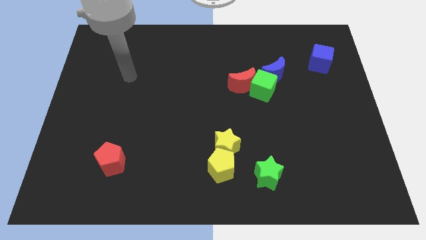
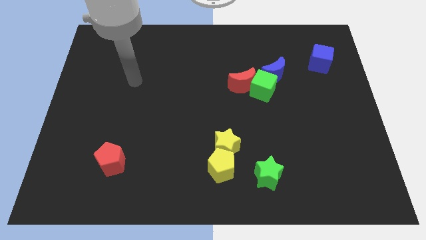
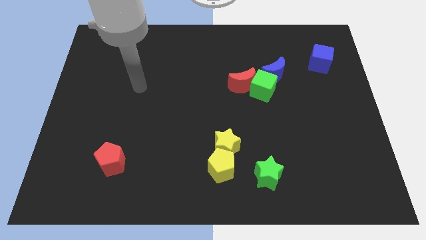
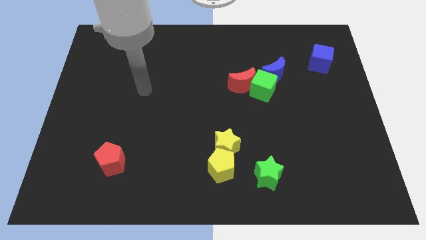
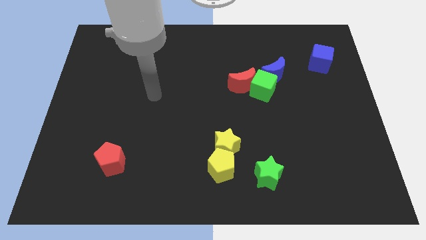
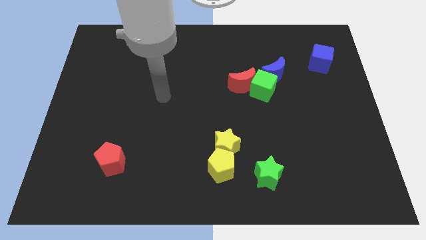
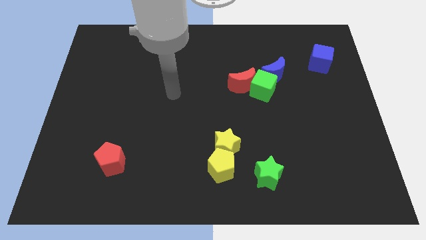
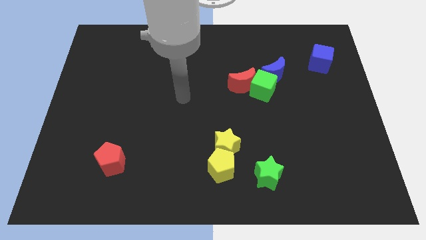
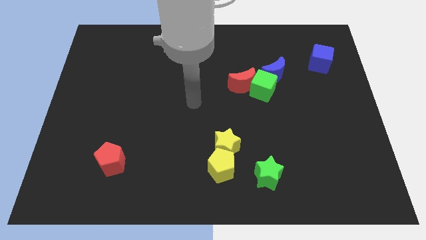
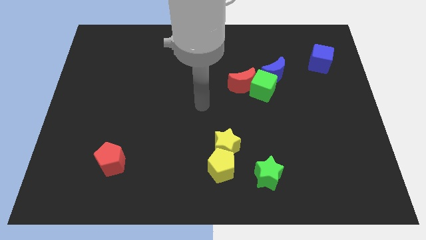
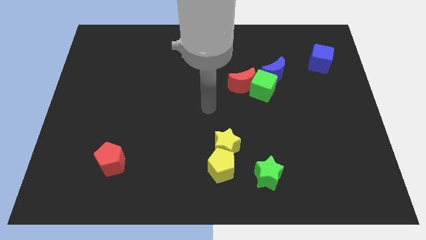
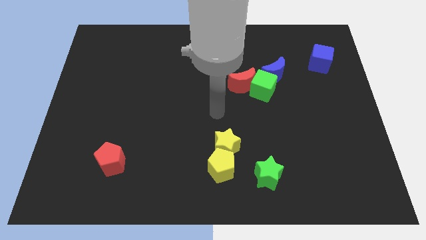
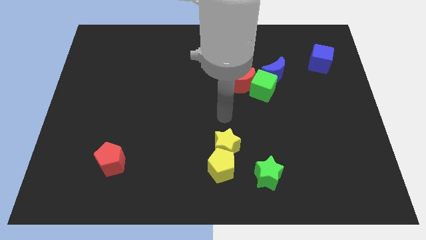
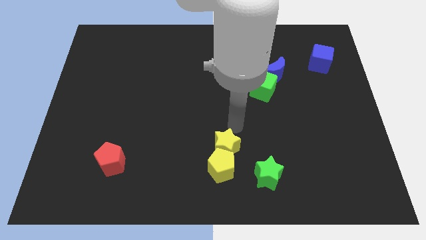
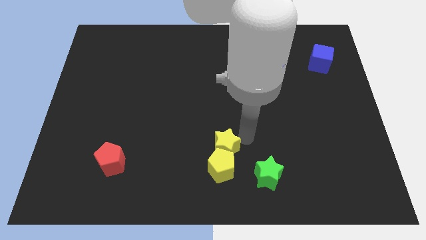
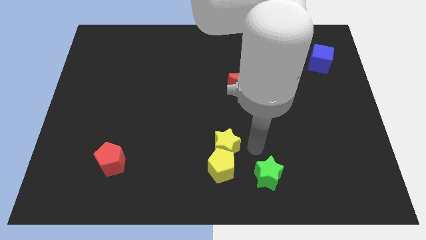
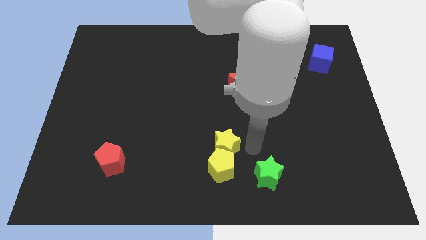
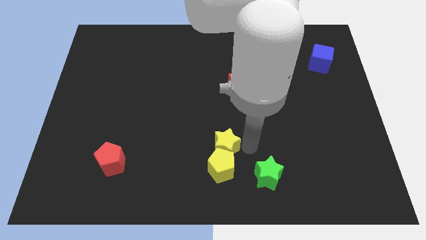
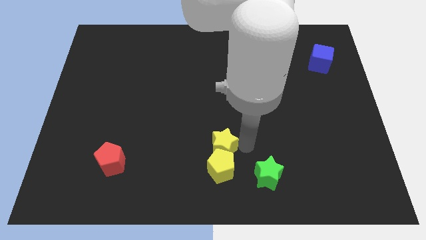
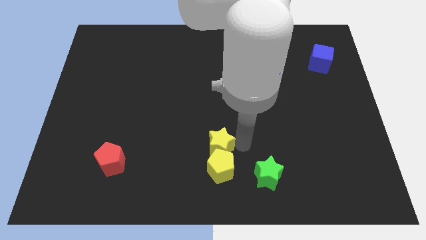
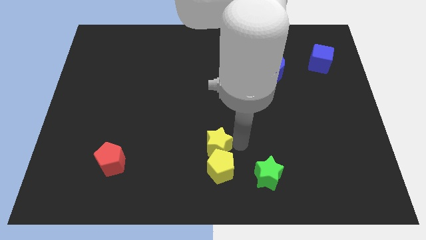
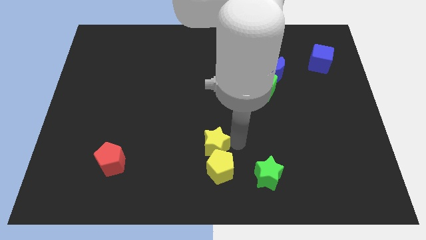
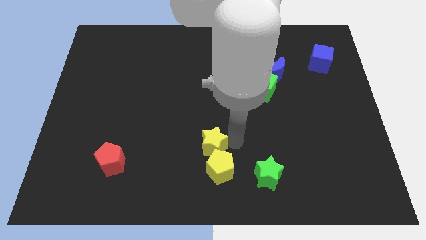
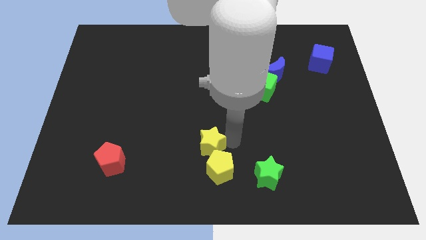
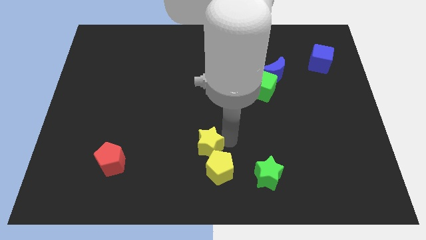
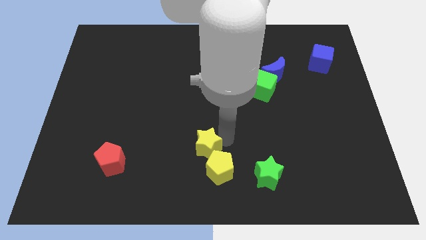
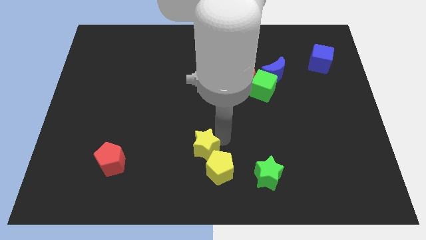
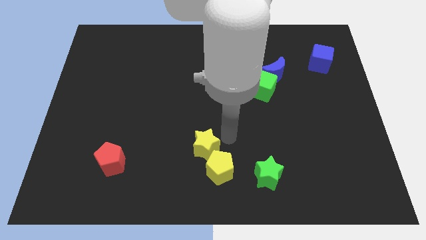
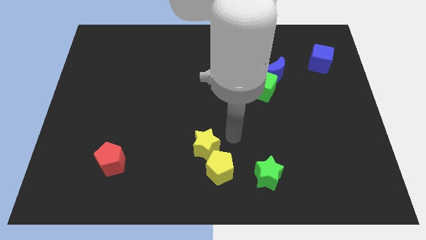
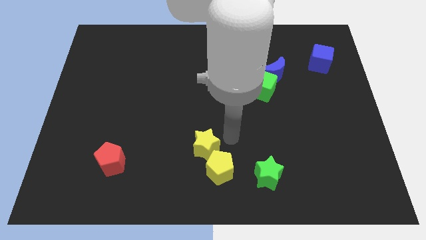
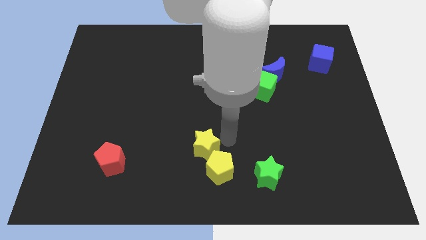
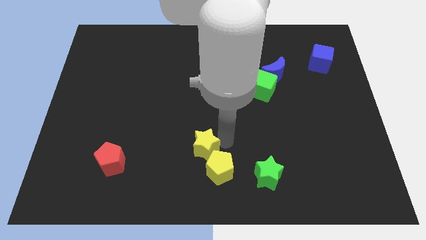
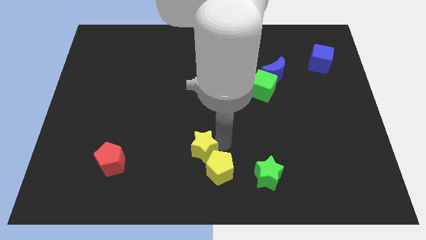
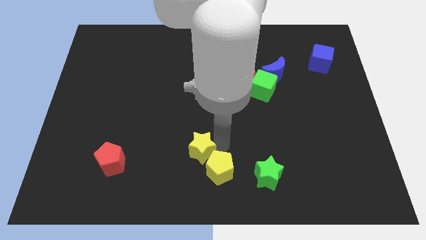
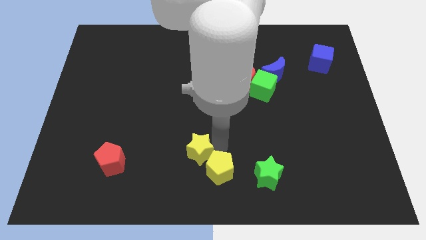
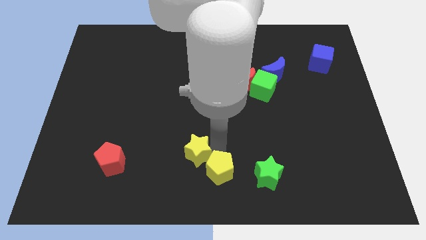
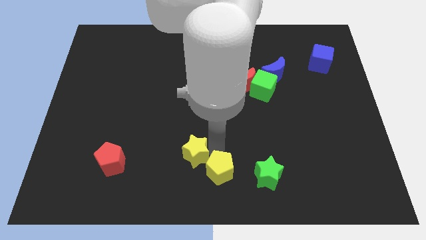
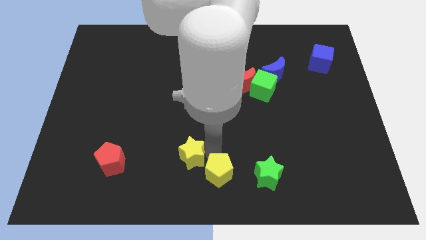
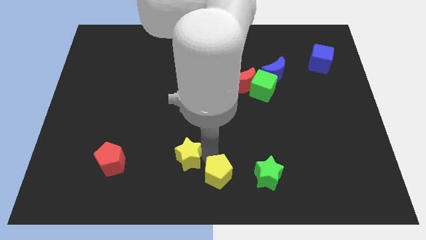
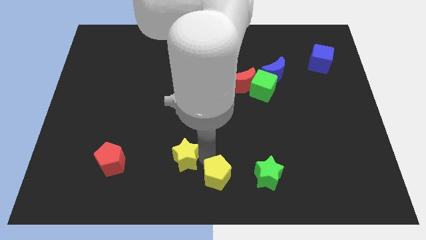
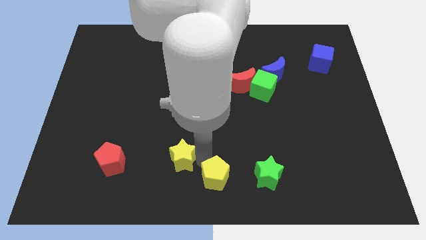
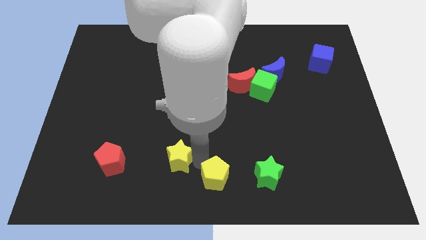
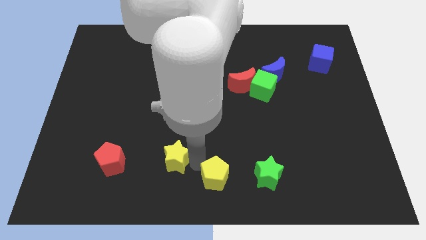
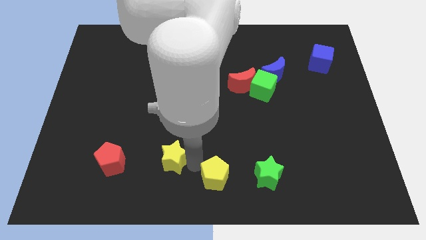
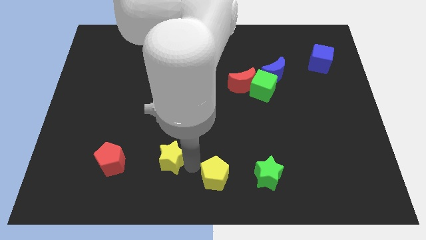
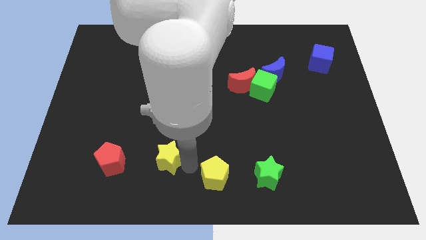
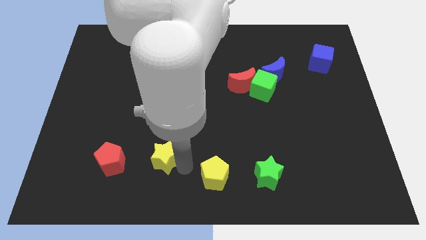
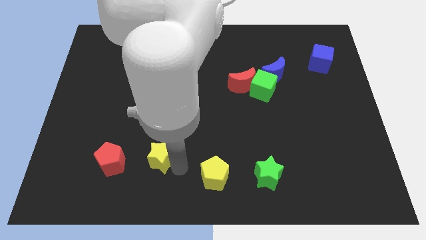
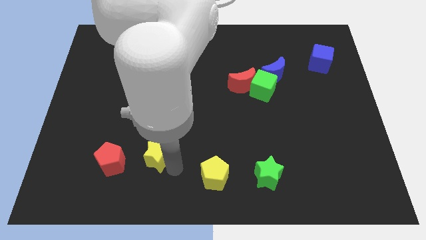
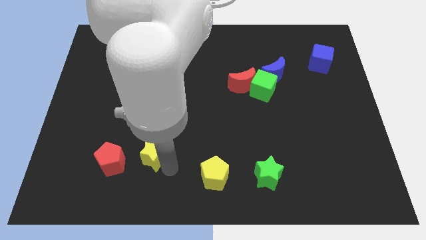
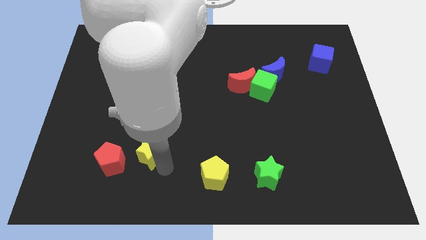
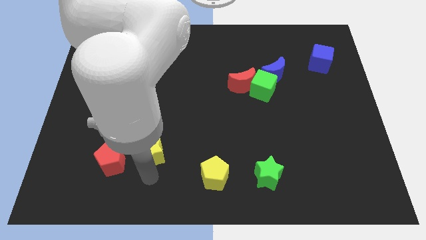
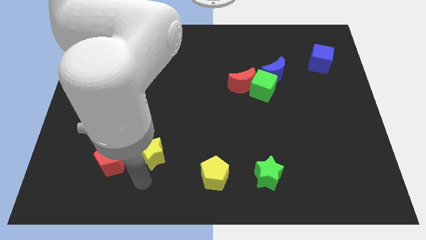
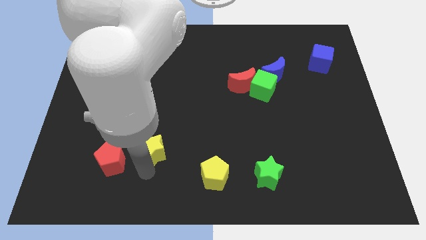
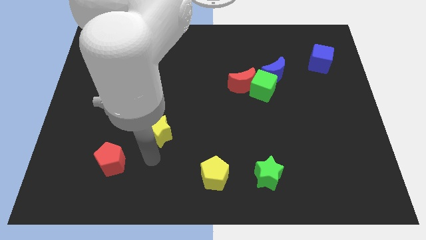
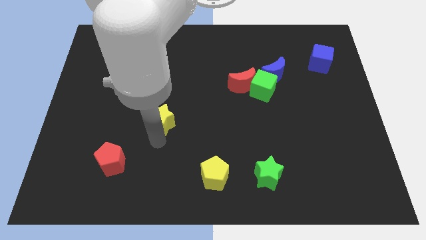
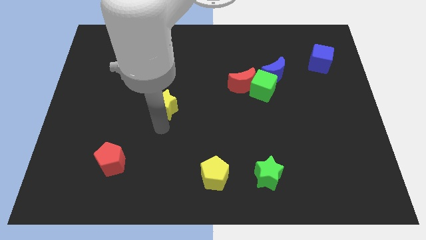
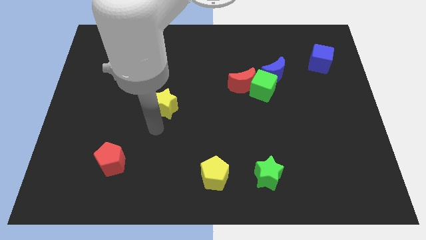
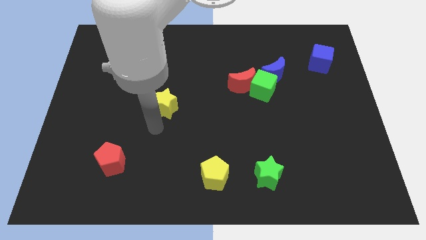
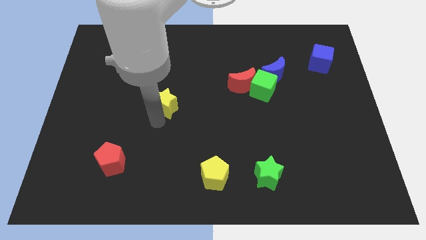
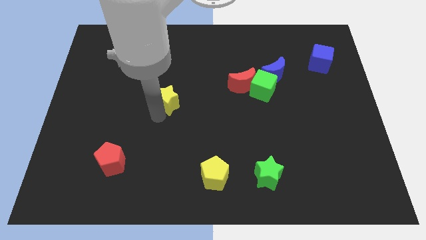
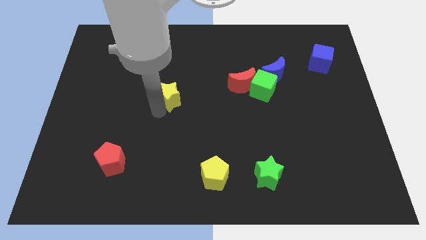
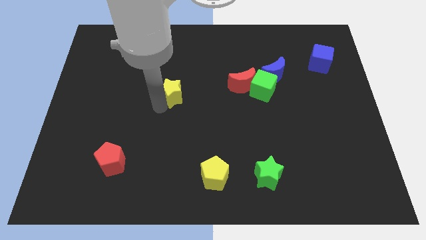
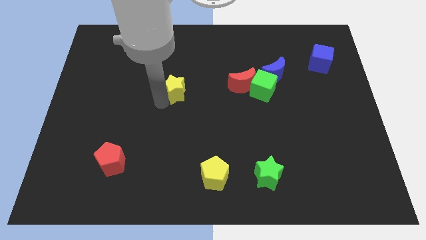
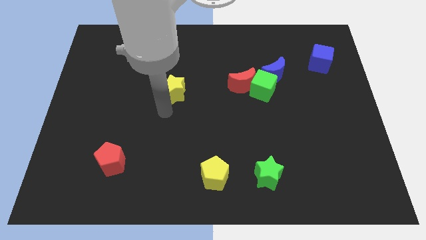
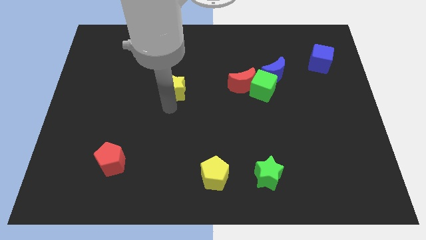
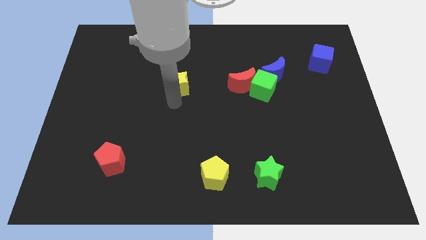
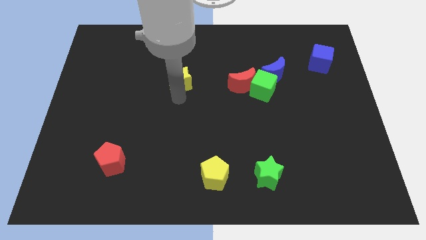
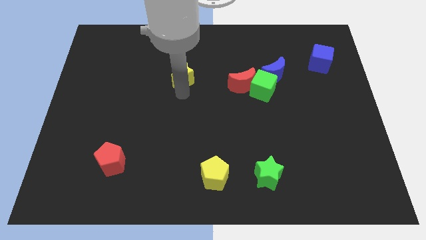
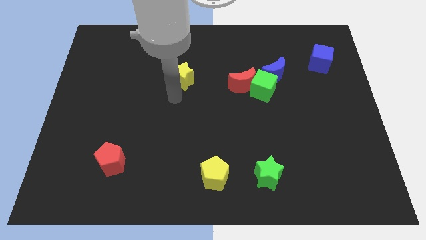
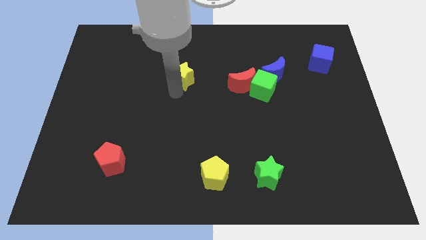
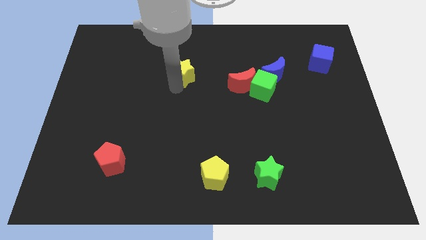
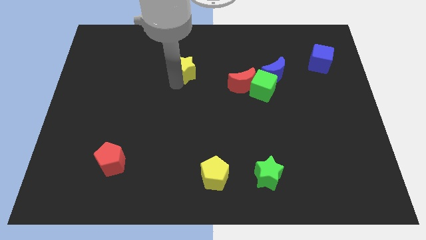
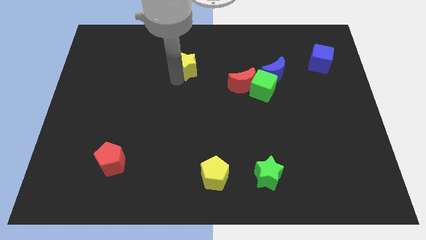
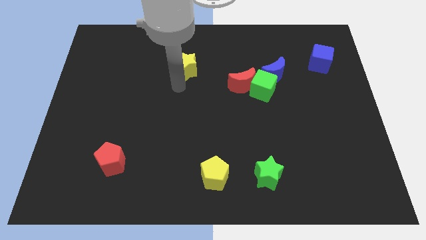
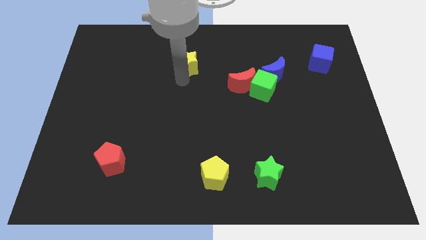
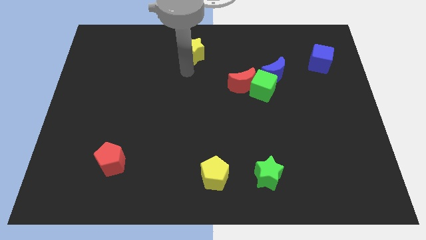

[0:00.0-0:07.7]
slide the yellow star to the top side
